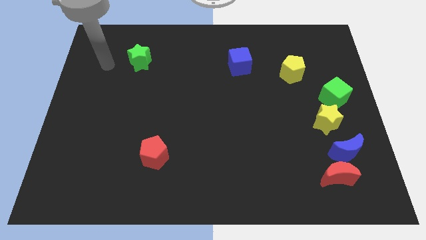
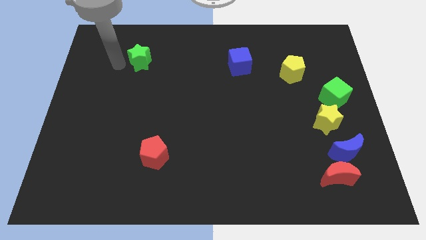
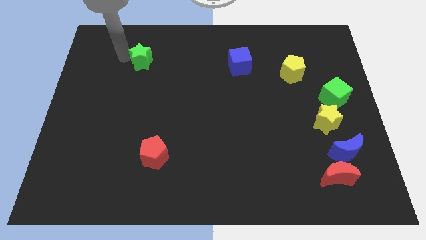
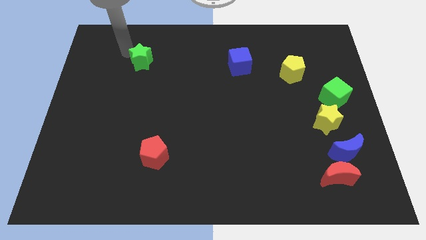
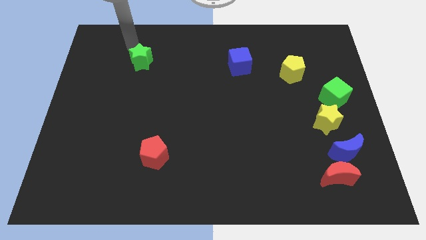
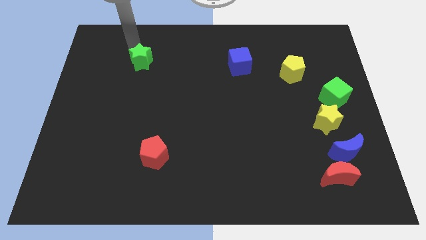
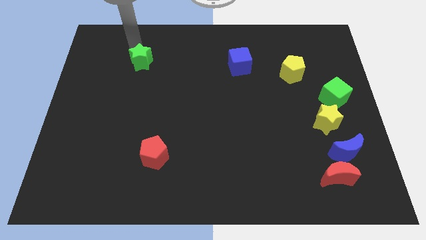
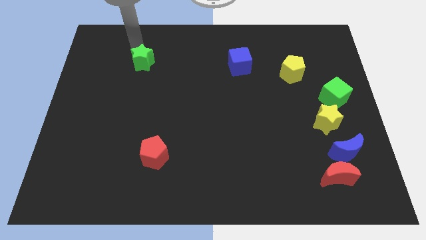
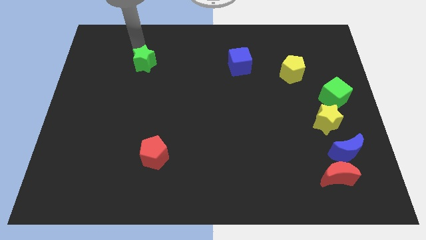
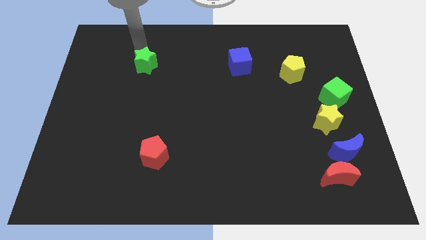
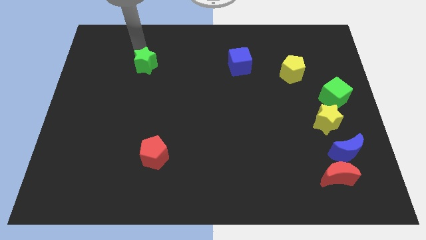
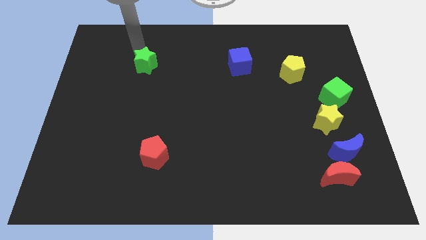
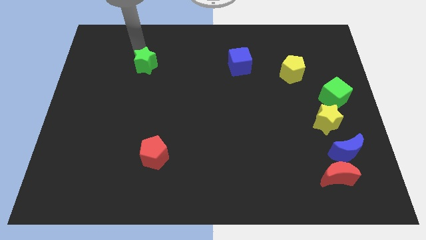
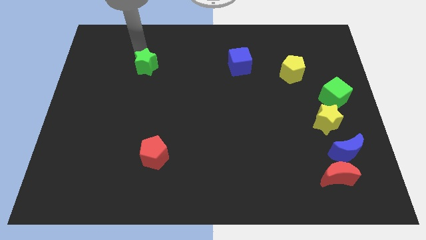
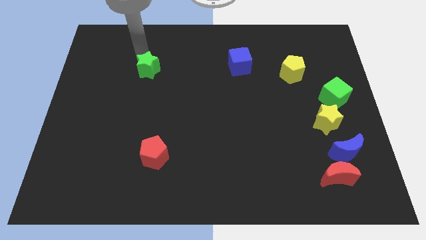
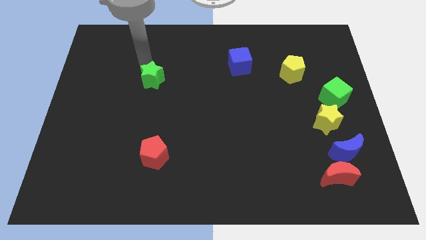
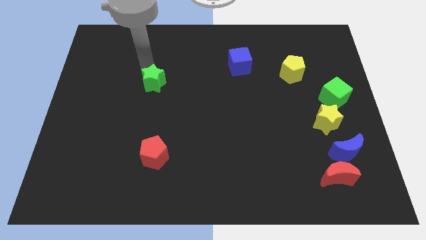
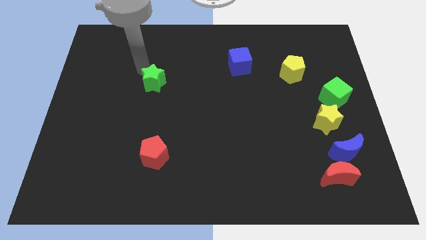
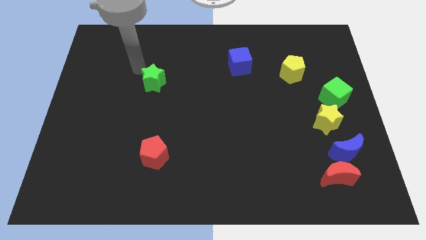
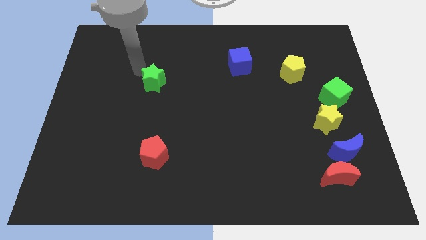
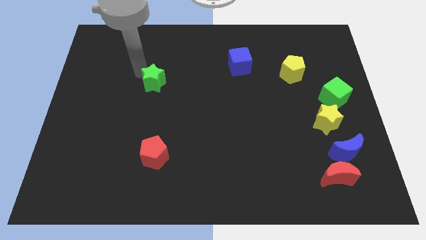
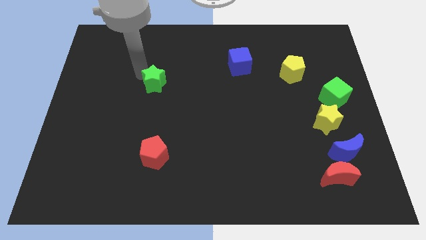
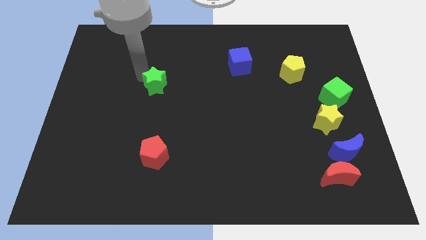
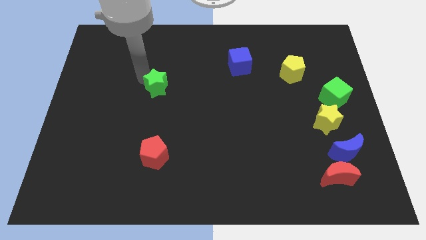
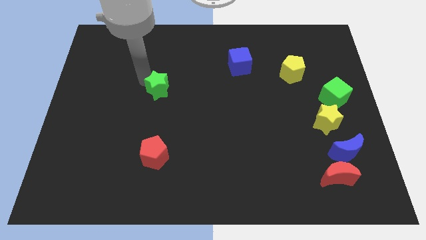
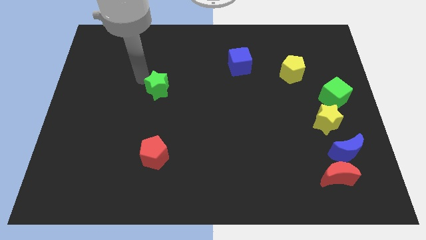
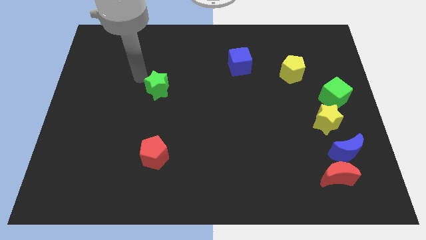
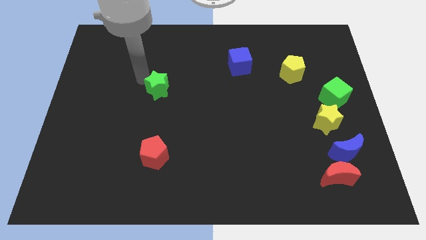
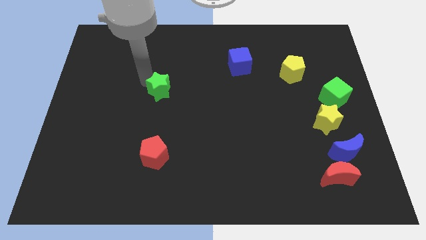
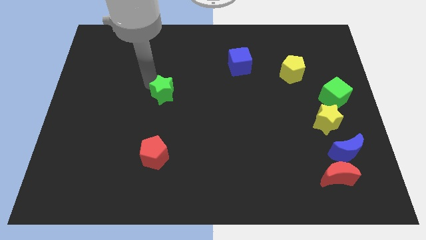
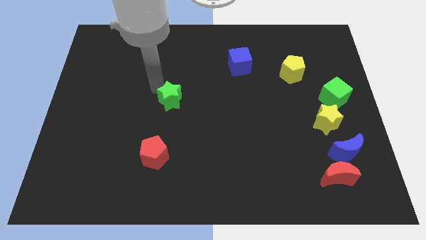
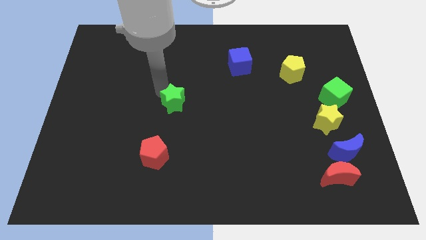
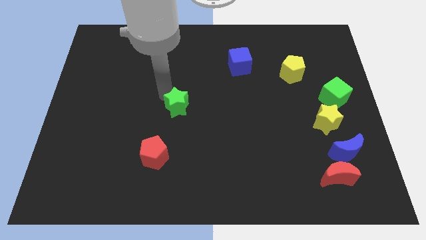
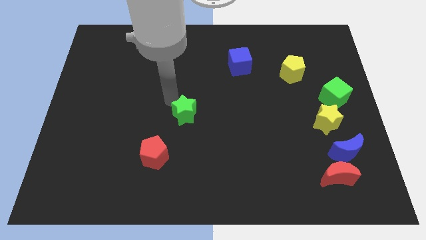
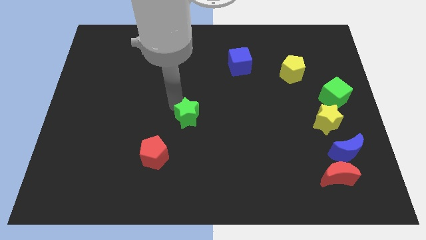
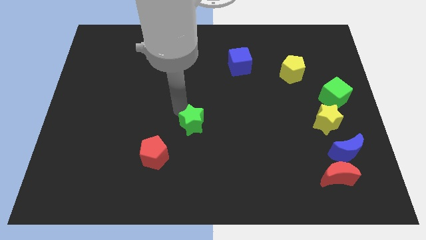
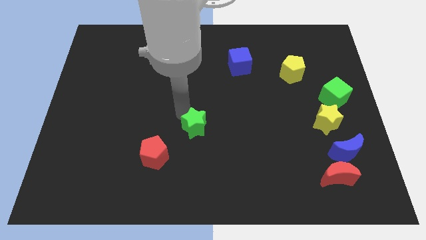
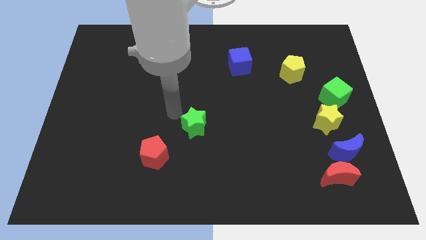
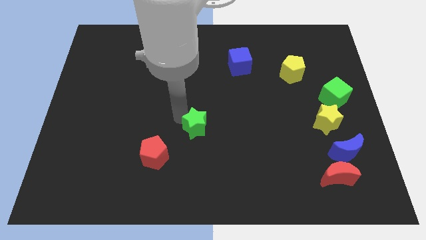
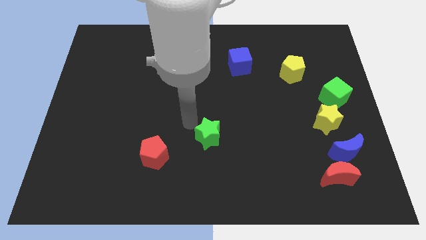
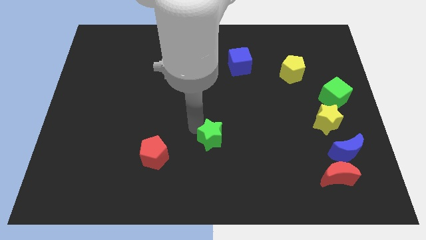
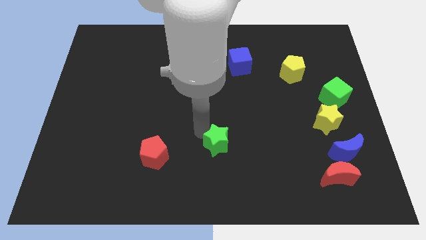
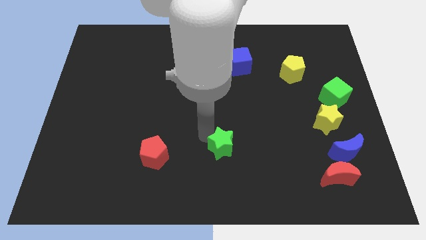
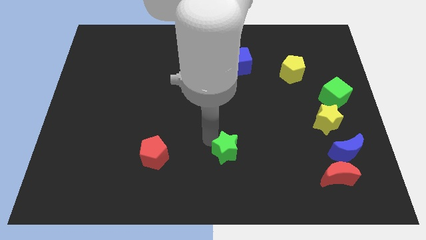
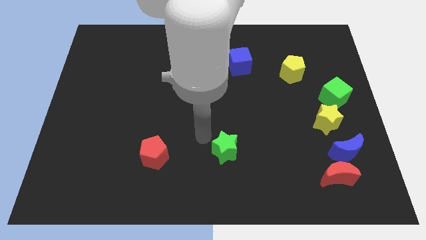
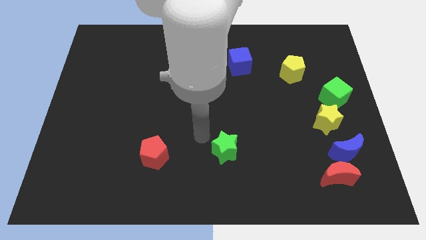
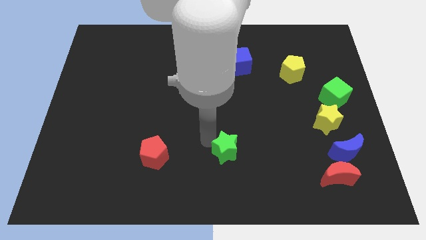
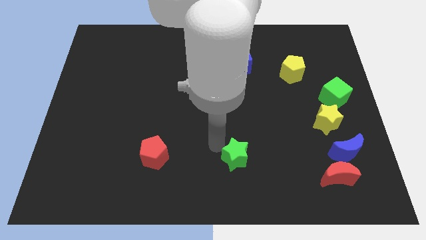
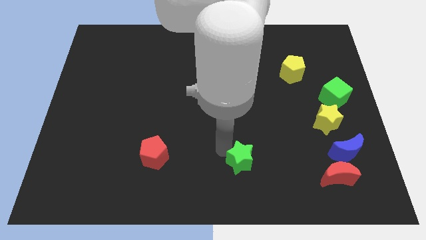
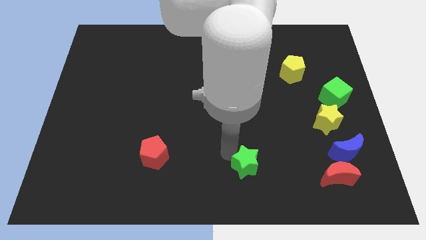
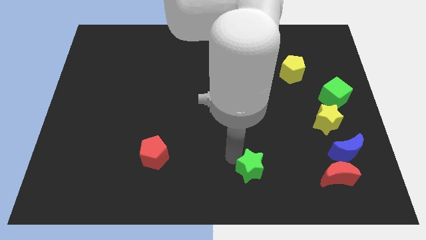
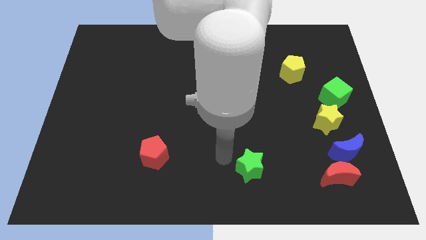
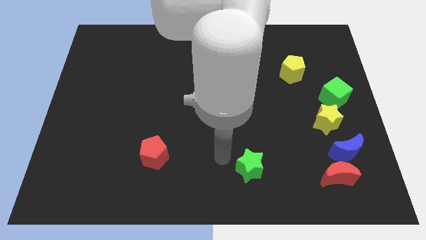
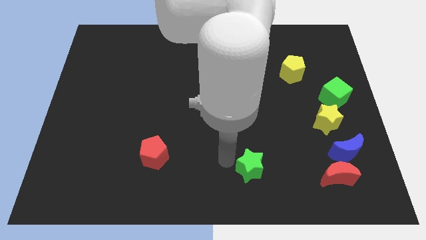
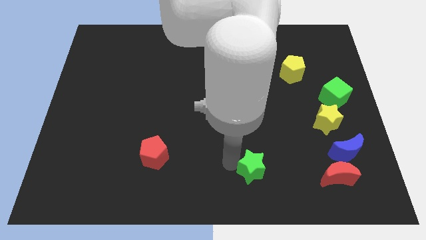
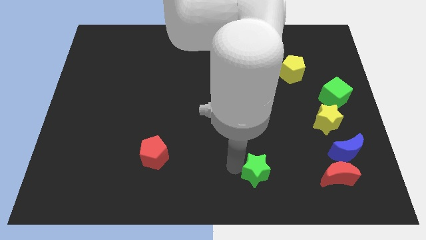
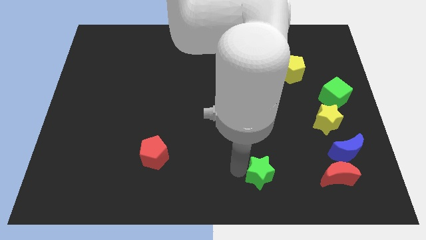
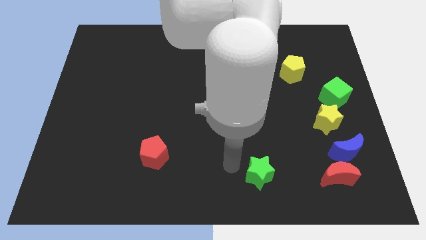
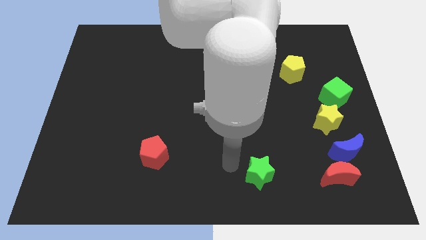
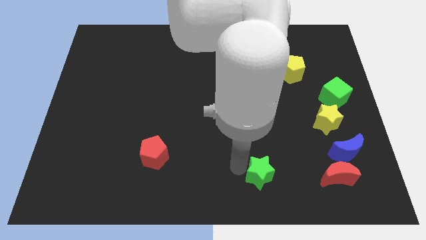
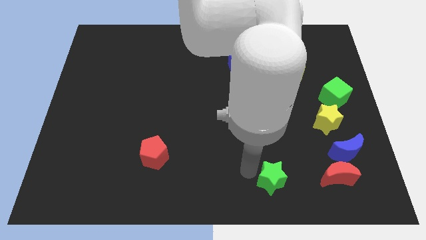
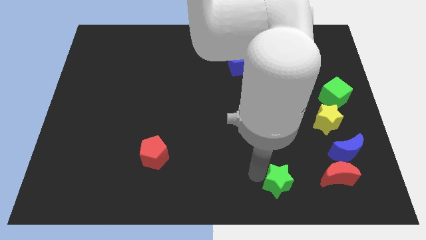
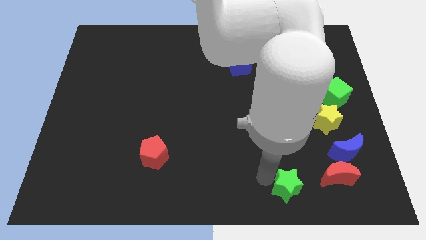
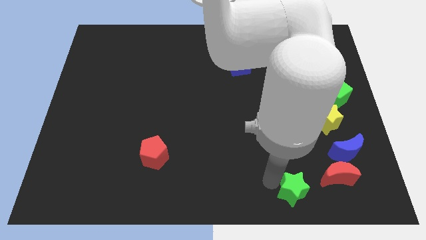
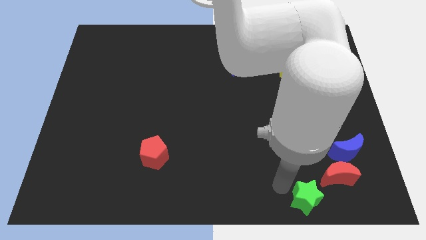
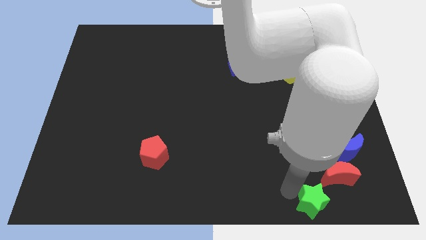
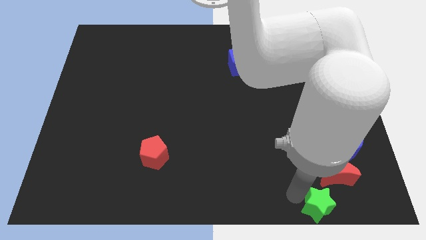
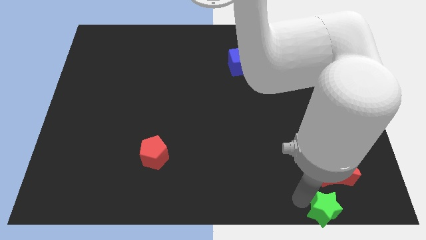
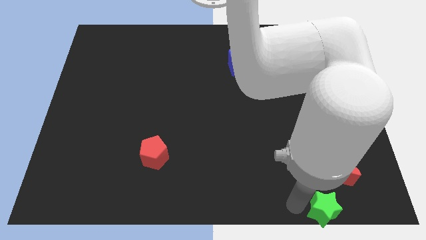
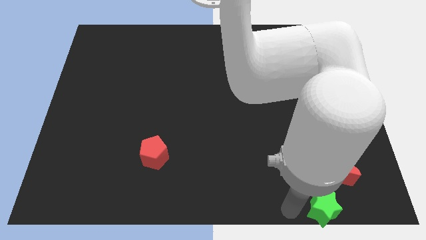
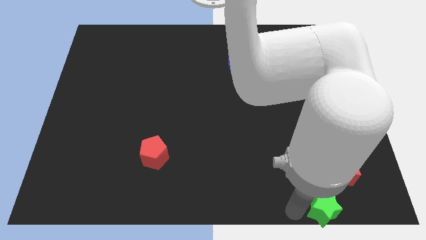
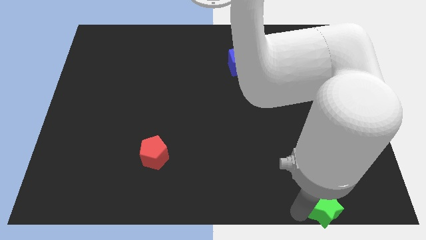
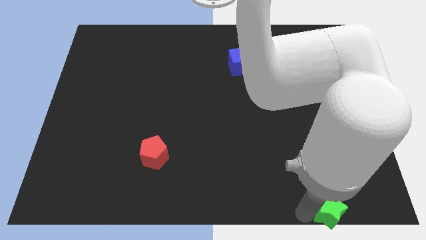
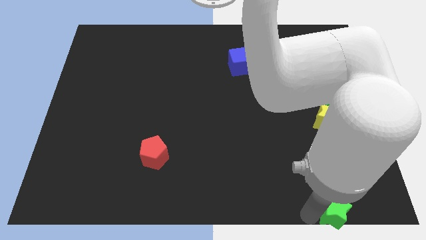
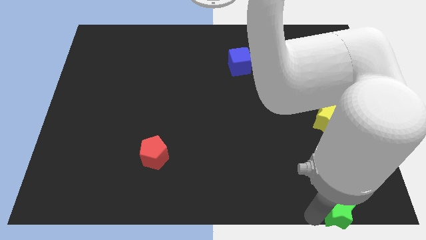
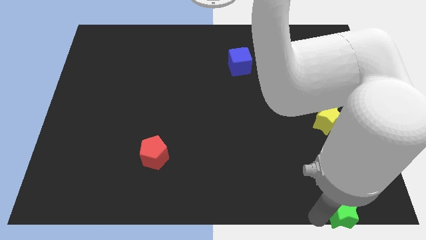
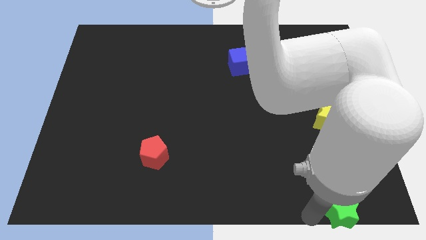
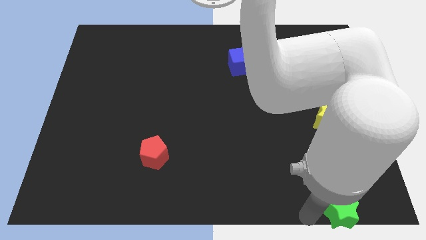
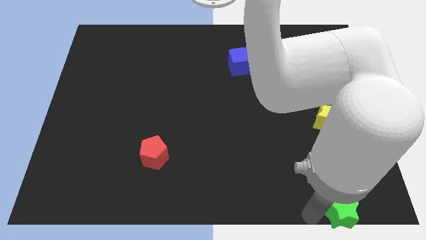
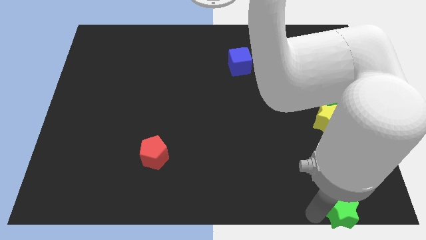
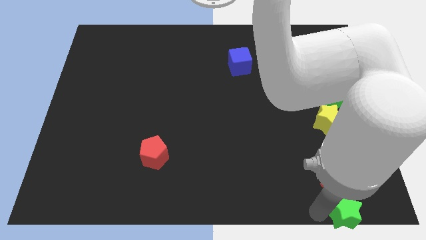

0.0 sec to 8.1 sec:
move the green star to the bottom right corner
